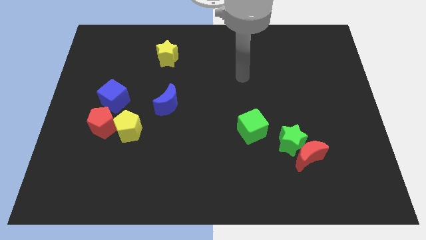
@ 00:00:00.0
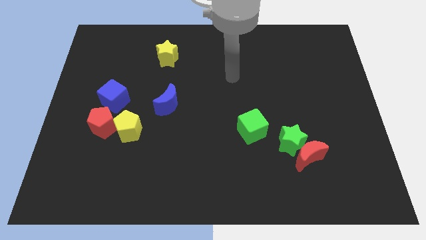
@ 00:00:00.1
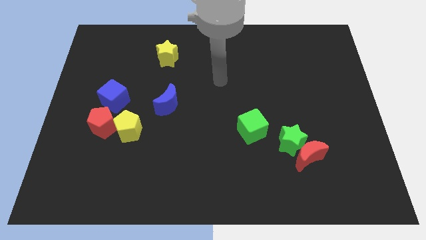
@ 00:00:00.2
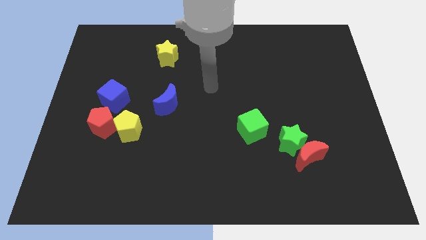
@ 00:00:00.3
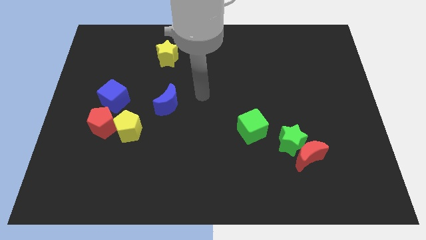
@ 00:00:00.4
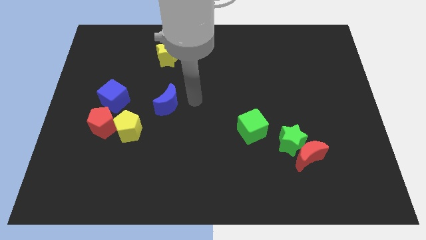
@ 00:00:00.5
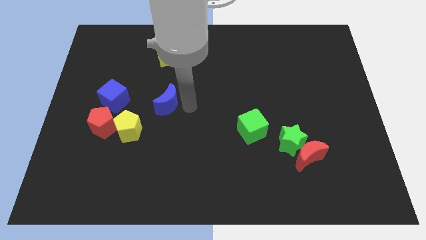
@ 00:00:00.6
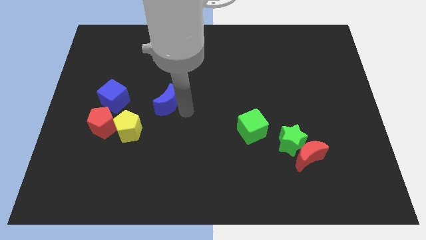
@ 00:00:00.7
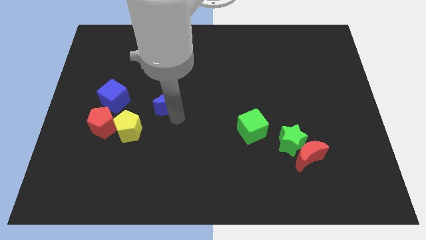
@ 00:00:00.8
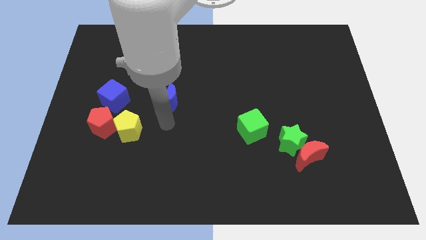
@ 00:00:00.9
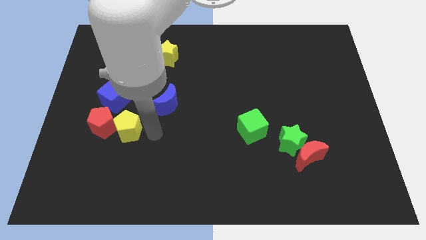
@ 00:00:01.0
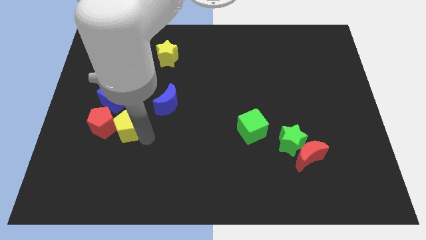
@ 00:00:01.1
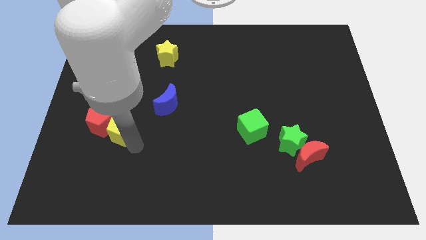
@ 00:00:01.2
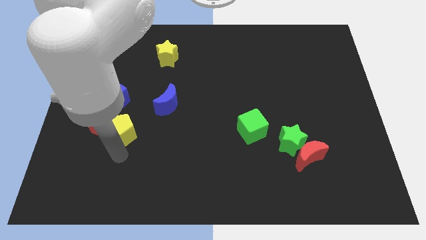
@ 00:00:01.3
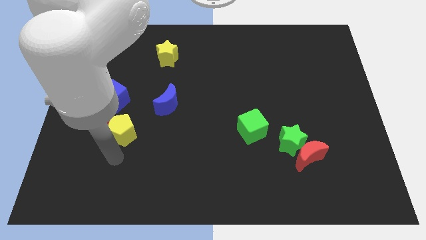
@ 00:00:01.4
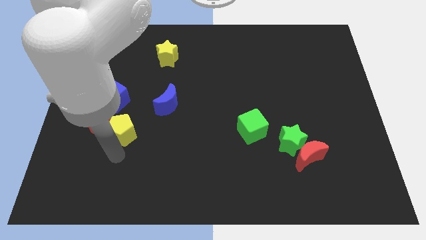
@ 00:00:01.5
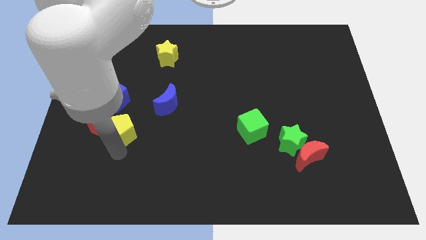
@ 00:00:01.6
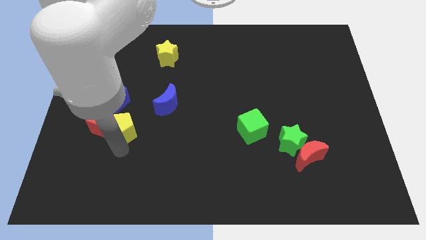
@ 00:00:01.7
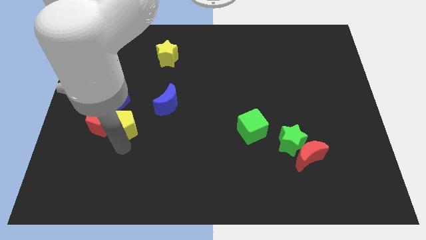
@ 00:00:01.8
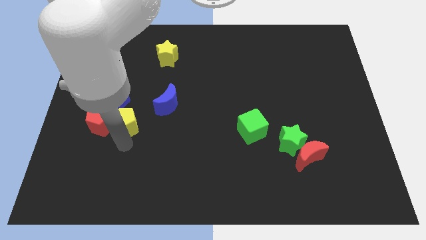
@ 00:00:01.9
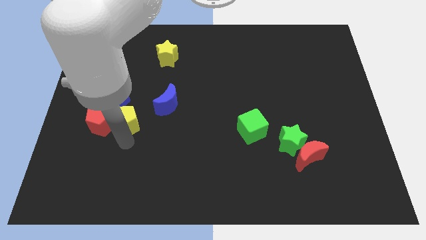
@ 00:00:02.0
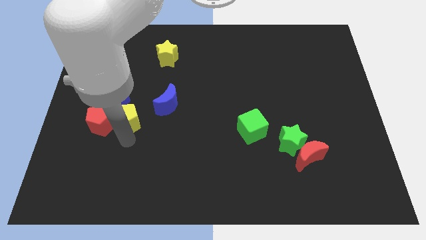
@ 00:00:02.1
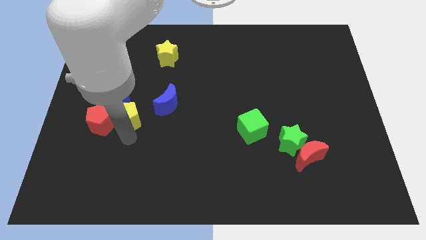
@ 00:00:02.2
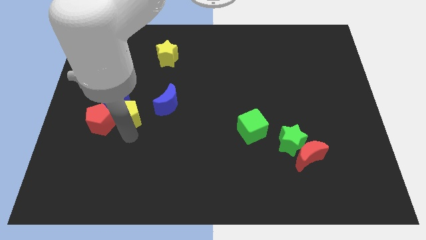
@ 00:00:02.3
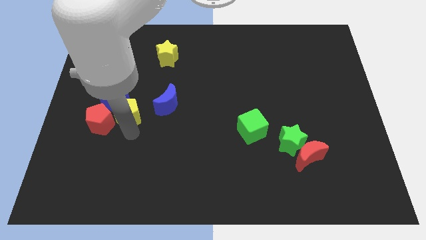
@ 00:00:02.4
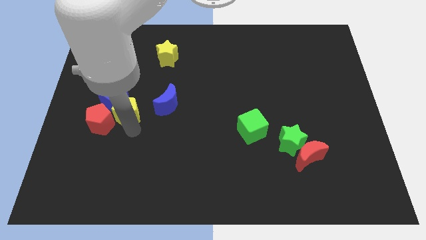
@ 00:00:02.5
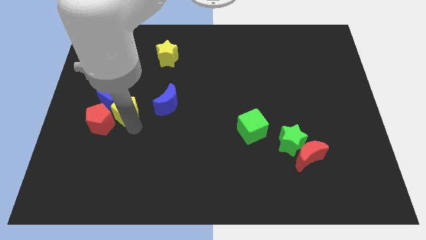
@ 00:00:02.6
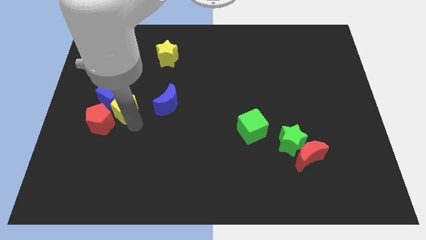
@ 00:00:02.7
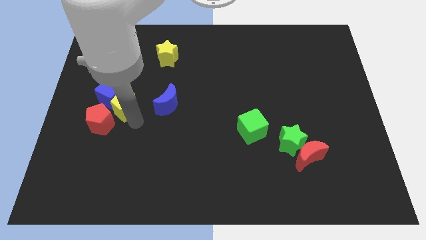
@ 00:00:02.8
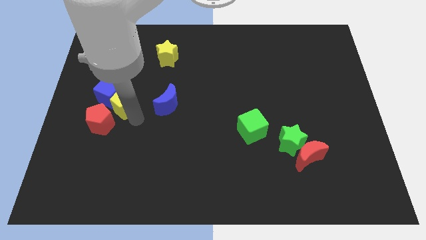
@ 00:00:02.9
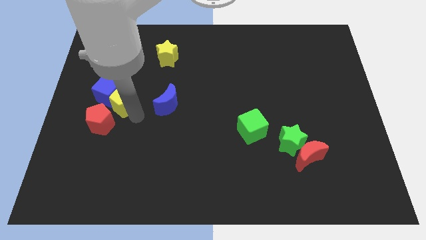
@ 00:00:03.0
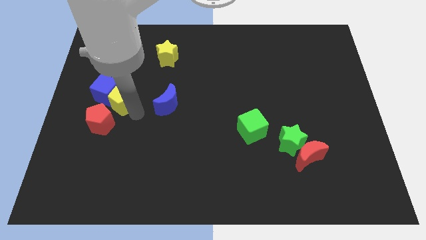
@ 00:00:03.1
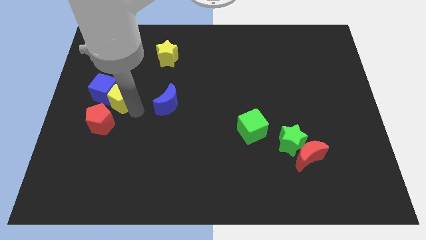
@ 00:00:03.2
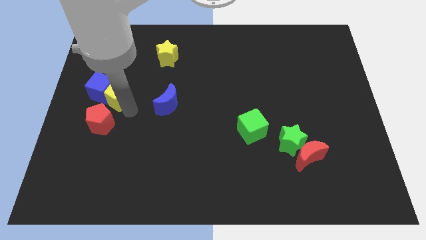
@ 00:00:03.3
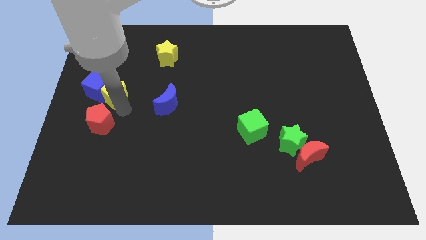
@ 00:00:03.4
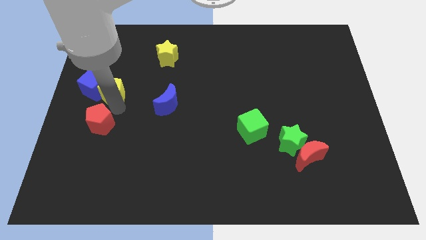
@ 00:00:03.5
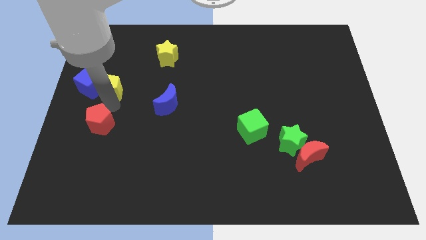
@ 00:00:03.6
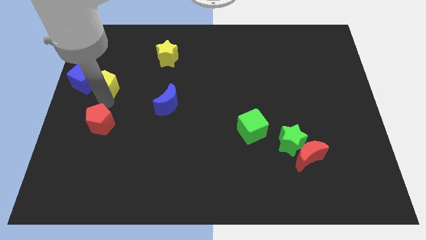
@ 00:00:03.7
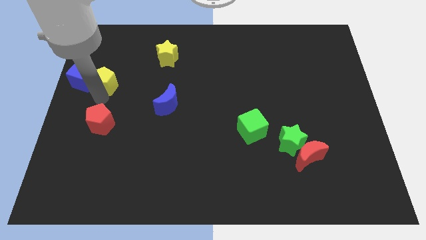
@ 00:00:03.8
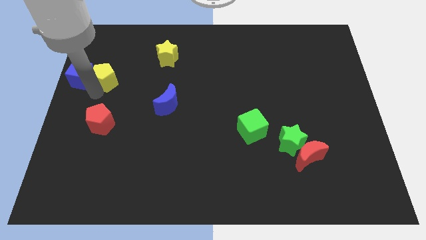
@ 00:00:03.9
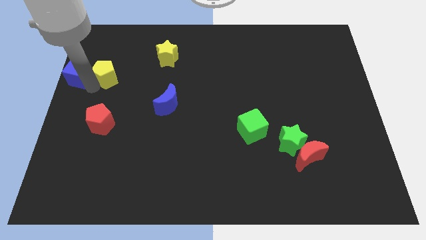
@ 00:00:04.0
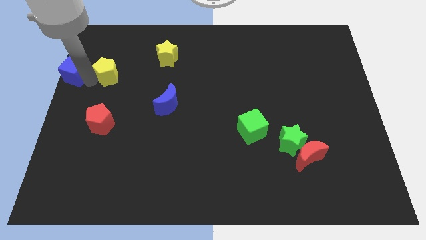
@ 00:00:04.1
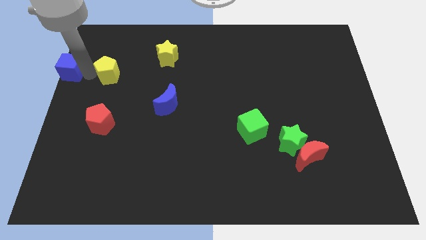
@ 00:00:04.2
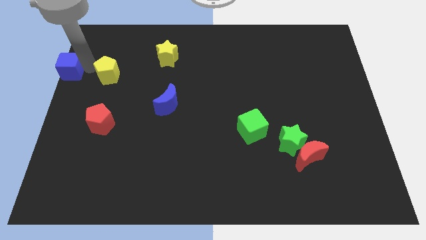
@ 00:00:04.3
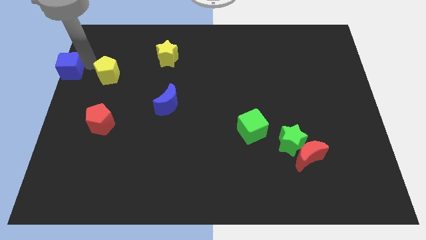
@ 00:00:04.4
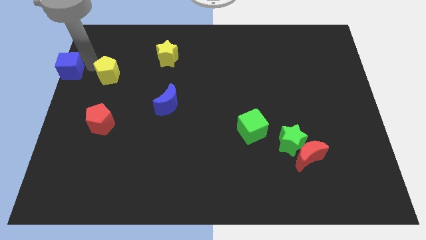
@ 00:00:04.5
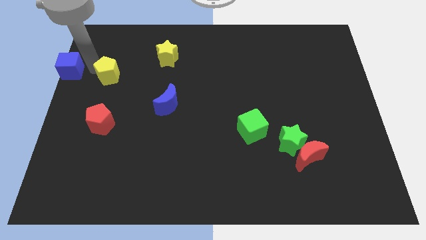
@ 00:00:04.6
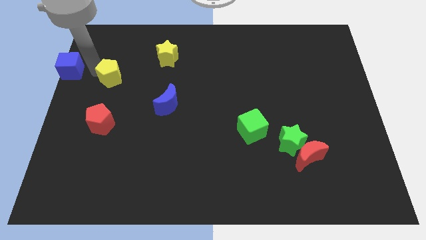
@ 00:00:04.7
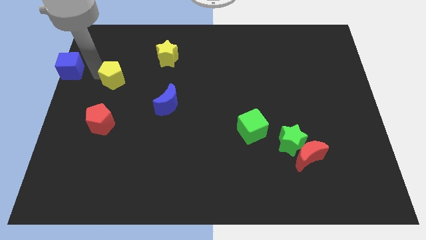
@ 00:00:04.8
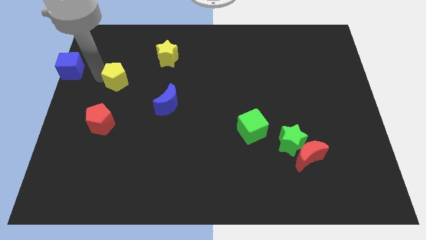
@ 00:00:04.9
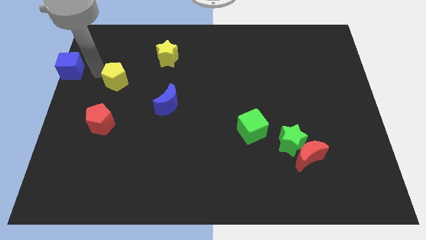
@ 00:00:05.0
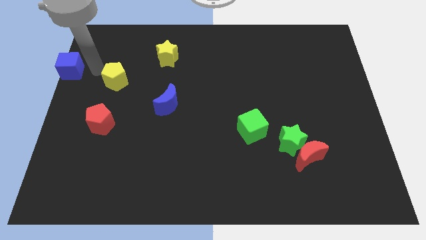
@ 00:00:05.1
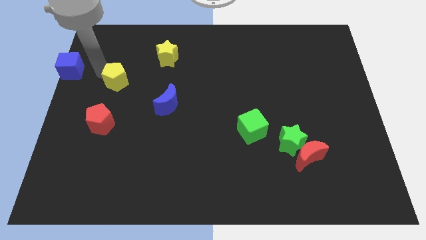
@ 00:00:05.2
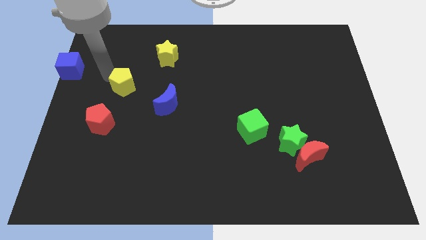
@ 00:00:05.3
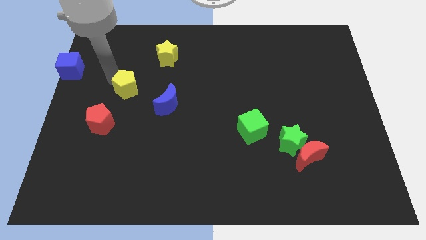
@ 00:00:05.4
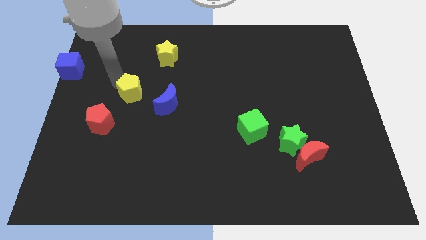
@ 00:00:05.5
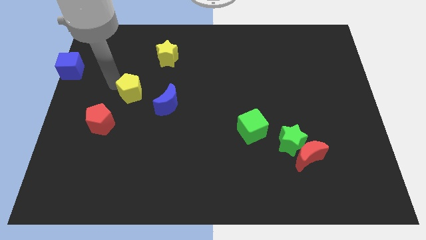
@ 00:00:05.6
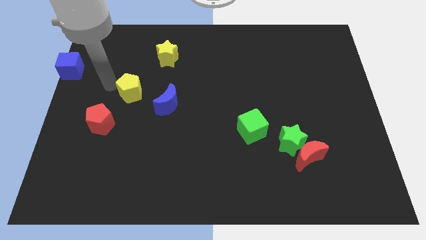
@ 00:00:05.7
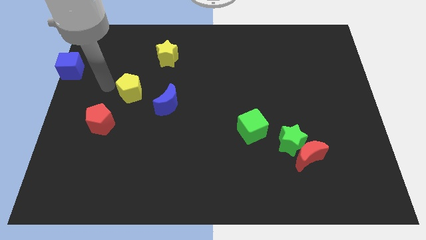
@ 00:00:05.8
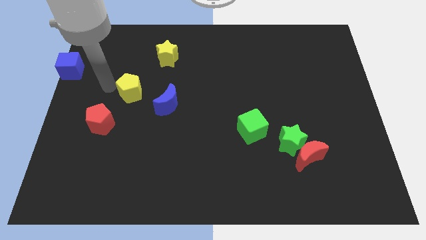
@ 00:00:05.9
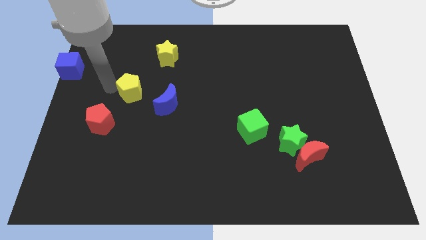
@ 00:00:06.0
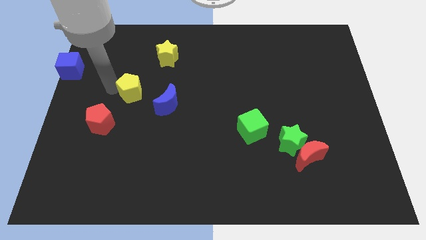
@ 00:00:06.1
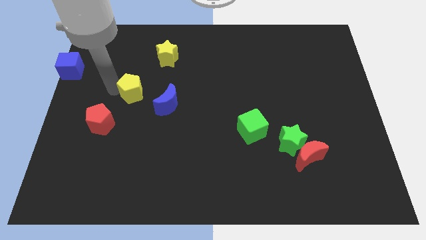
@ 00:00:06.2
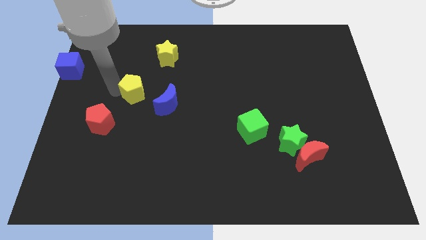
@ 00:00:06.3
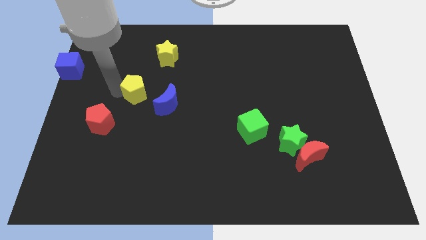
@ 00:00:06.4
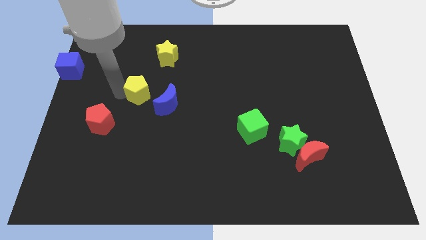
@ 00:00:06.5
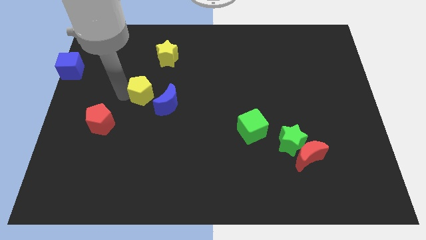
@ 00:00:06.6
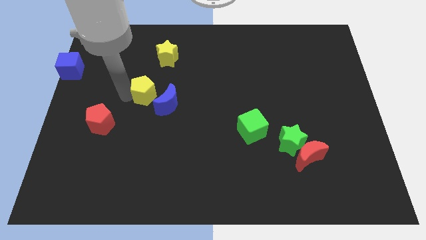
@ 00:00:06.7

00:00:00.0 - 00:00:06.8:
slide the yellow pentagon up and right diagonally a little

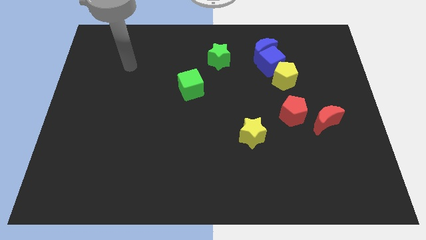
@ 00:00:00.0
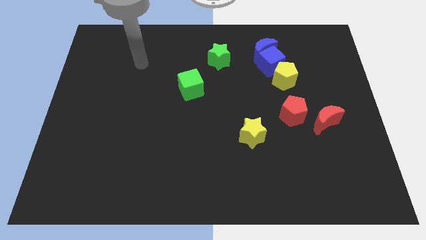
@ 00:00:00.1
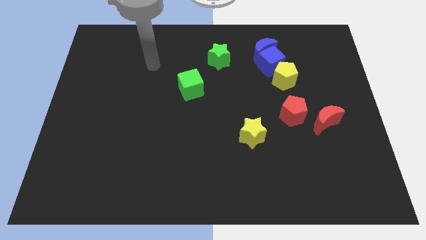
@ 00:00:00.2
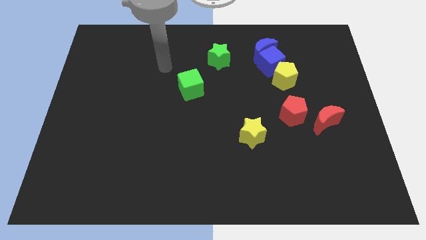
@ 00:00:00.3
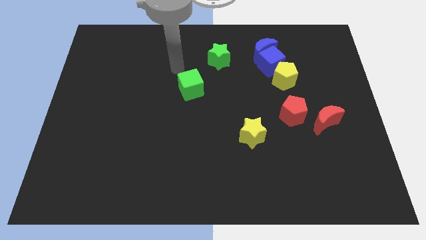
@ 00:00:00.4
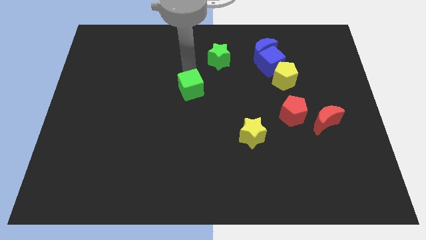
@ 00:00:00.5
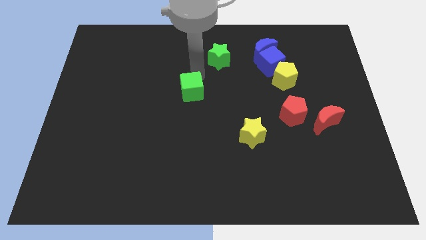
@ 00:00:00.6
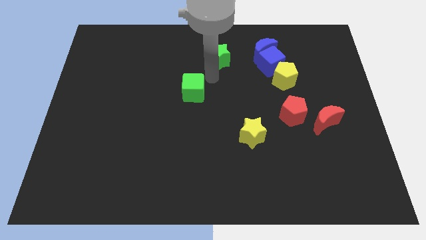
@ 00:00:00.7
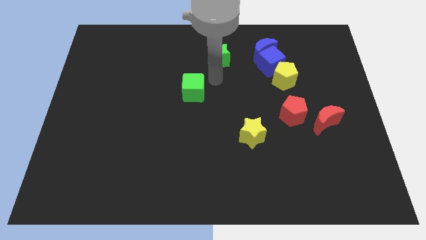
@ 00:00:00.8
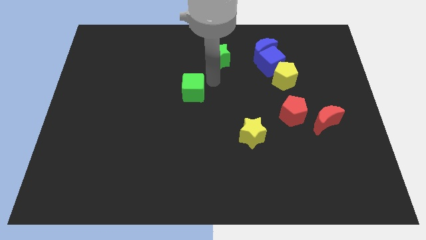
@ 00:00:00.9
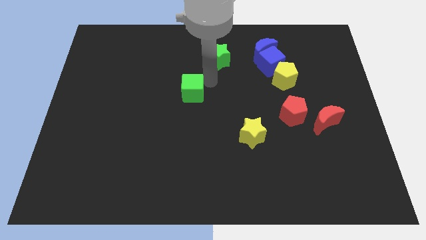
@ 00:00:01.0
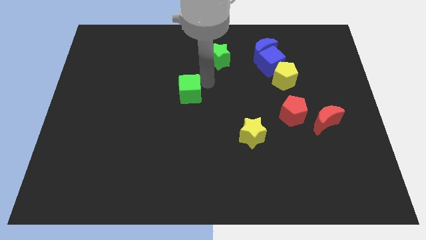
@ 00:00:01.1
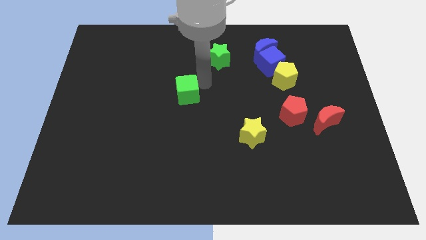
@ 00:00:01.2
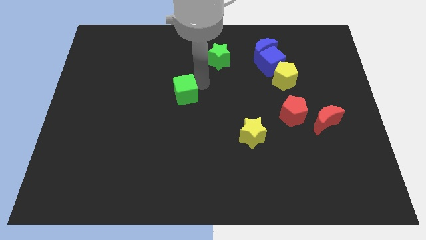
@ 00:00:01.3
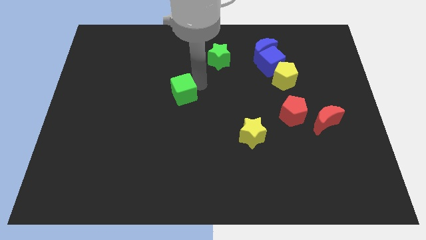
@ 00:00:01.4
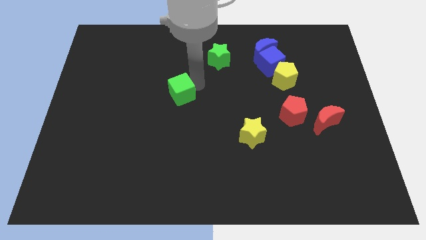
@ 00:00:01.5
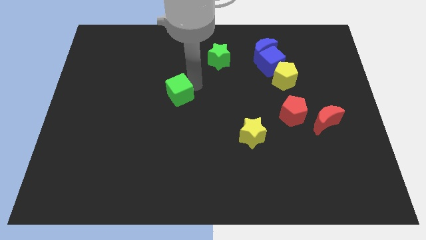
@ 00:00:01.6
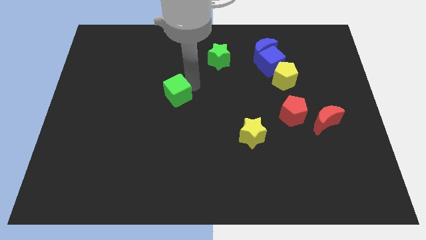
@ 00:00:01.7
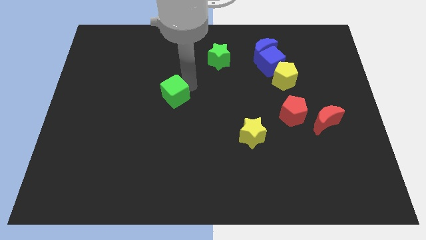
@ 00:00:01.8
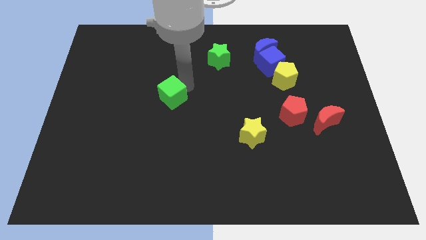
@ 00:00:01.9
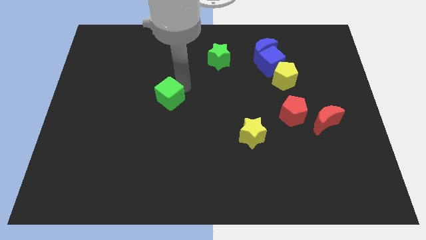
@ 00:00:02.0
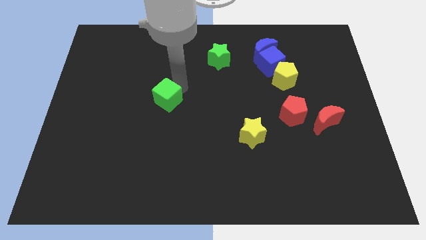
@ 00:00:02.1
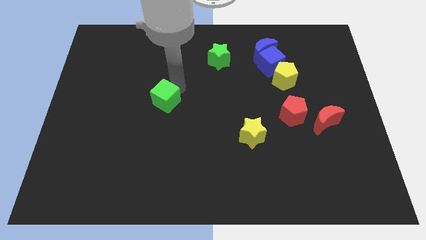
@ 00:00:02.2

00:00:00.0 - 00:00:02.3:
slide the green cube somewhat down and left
